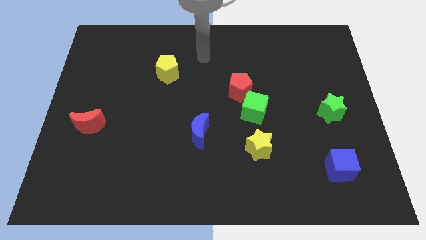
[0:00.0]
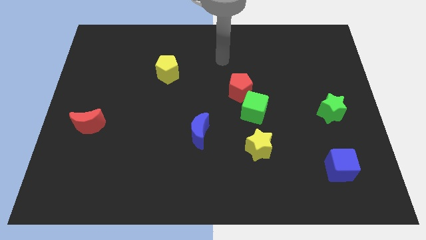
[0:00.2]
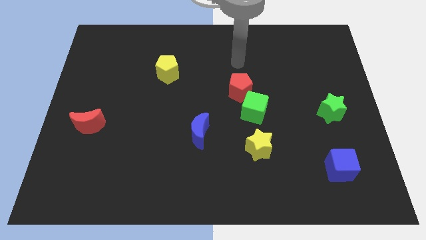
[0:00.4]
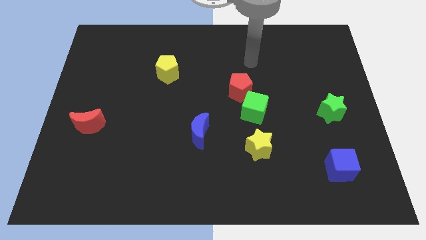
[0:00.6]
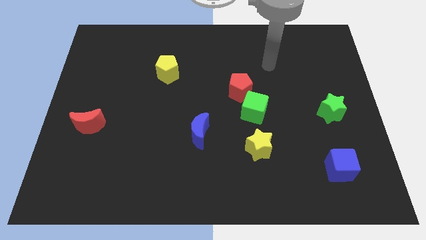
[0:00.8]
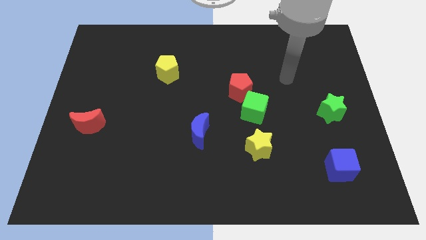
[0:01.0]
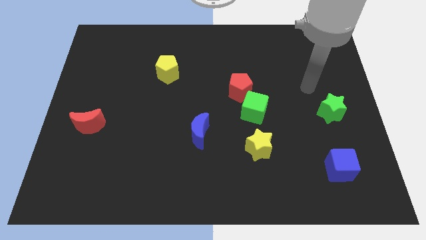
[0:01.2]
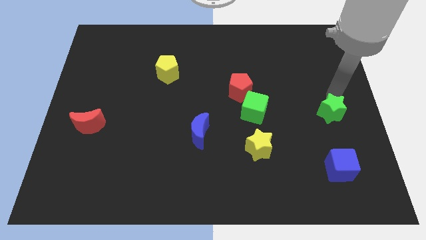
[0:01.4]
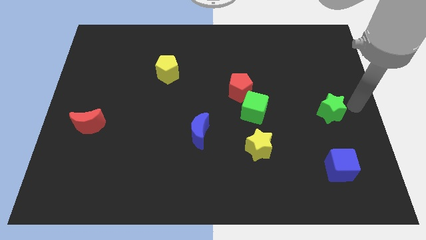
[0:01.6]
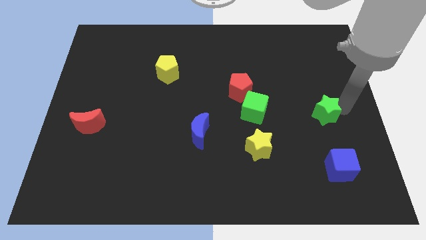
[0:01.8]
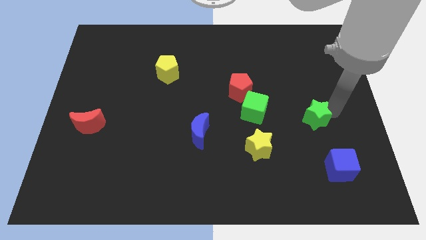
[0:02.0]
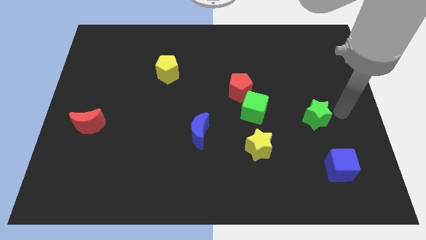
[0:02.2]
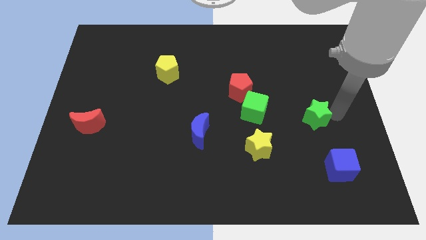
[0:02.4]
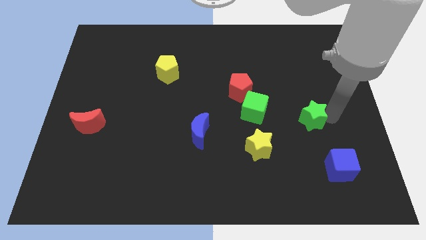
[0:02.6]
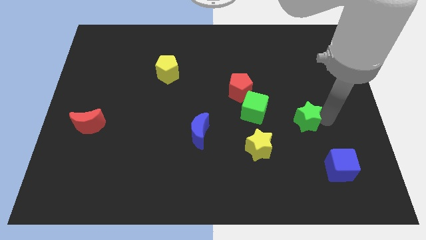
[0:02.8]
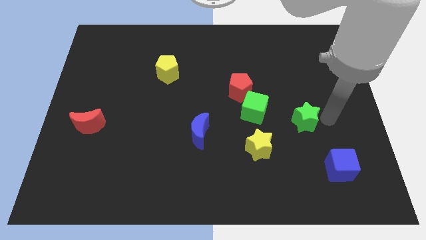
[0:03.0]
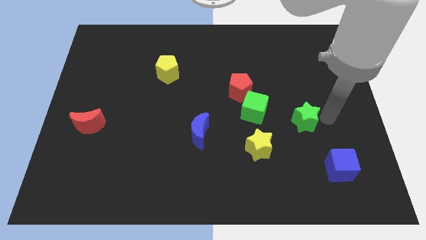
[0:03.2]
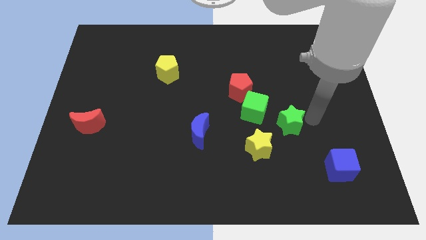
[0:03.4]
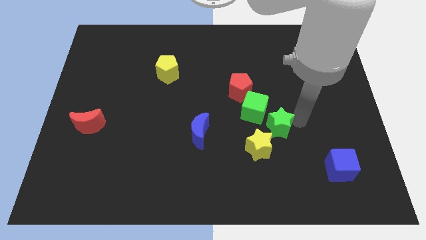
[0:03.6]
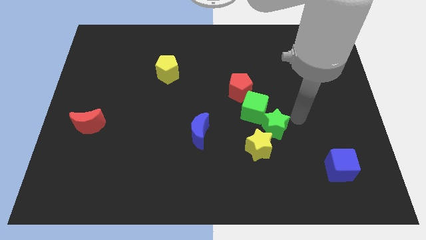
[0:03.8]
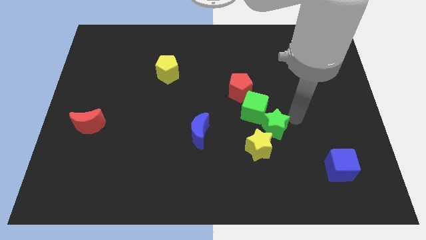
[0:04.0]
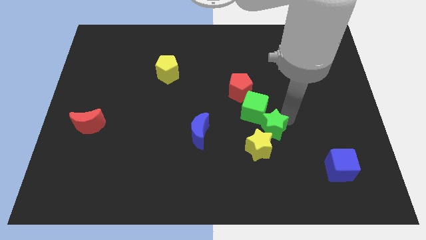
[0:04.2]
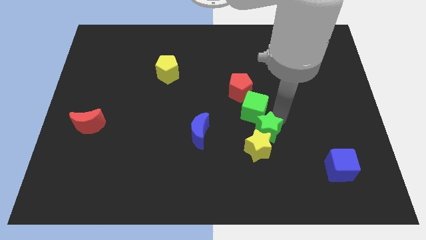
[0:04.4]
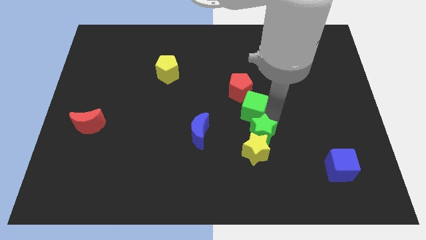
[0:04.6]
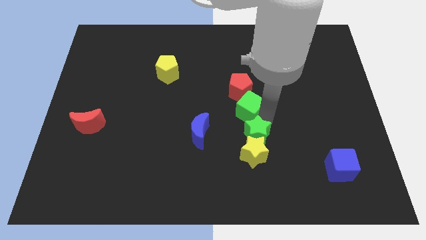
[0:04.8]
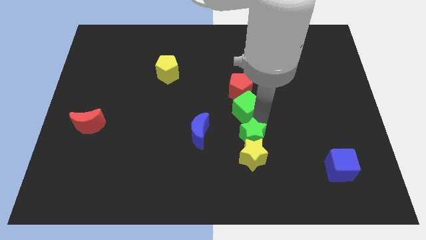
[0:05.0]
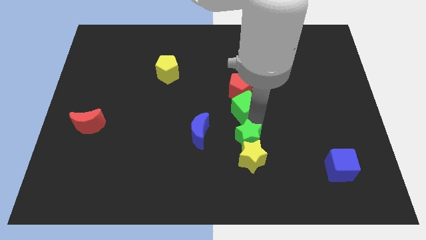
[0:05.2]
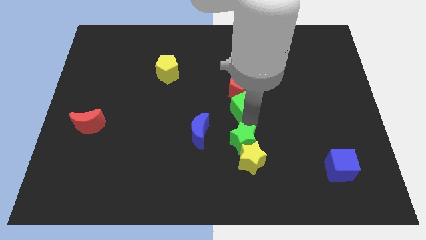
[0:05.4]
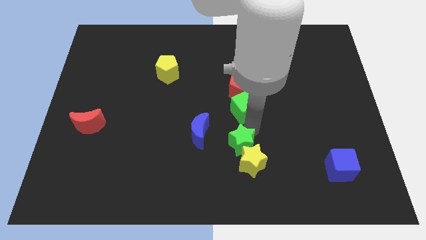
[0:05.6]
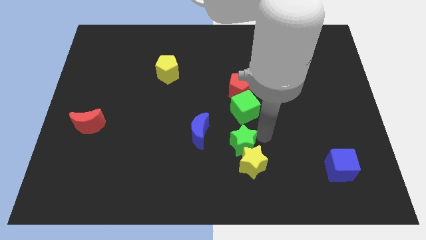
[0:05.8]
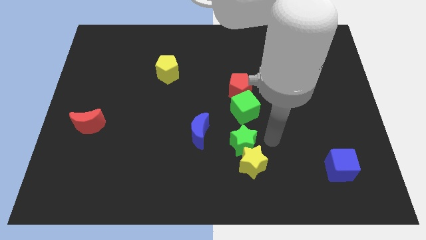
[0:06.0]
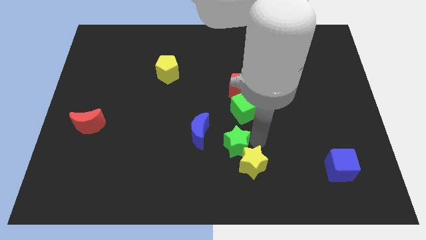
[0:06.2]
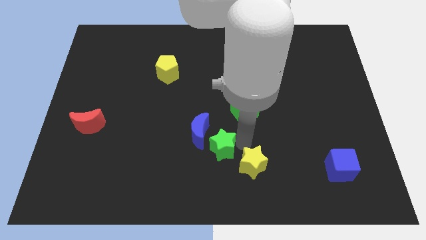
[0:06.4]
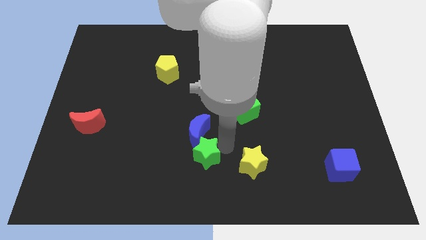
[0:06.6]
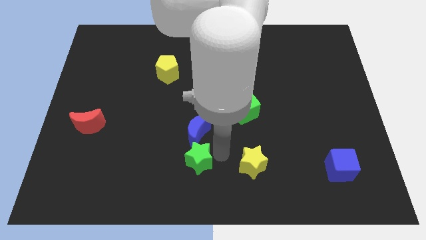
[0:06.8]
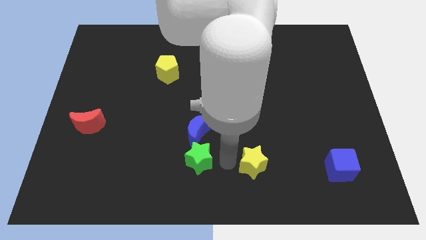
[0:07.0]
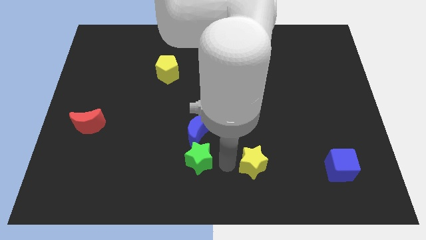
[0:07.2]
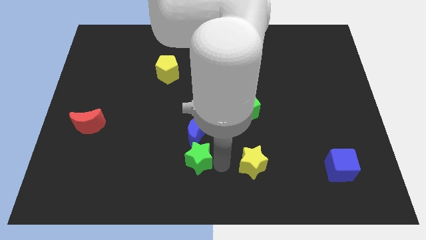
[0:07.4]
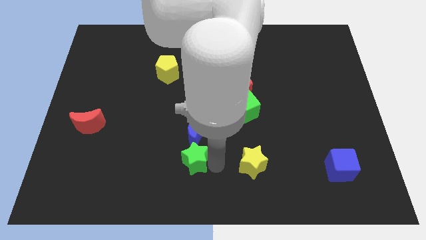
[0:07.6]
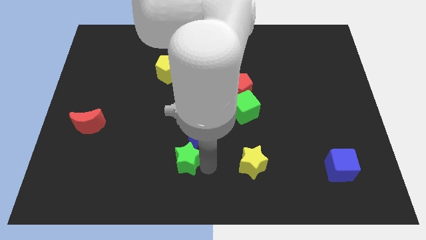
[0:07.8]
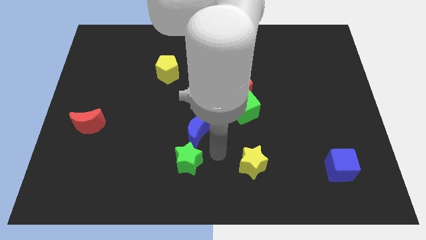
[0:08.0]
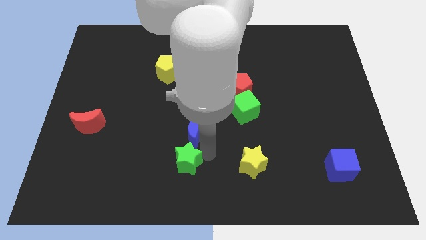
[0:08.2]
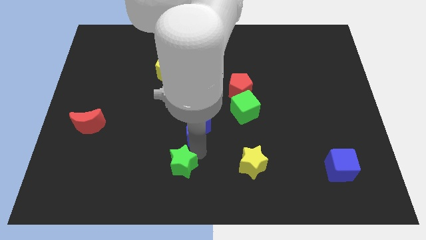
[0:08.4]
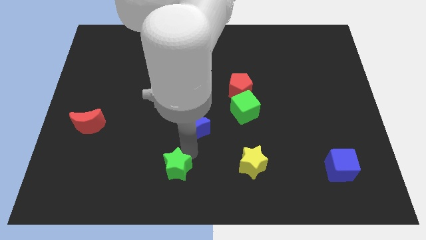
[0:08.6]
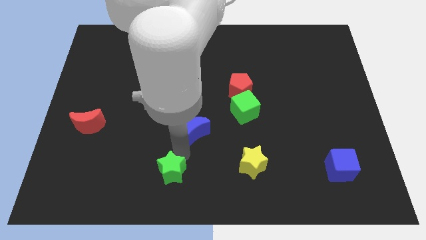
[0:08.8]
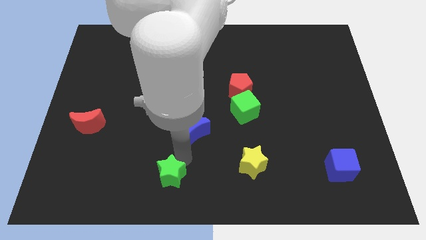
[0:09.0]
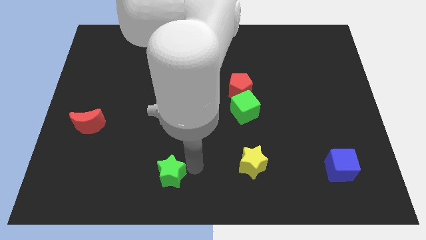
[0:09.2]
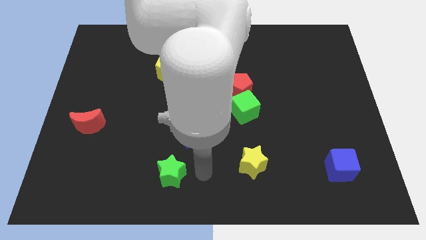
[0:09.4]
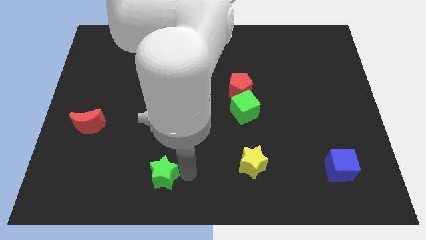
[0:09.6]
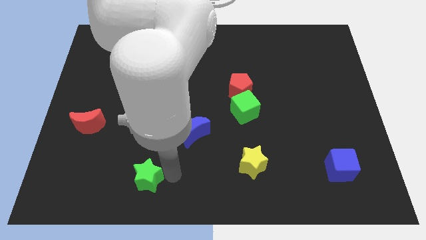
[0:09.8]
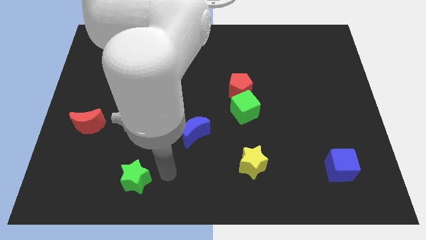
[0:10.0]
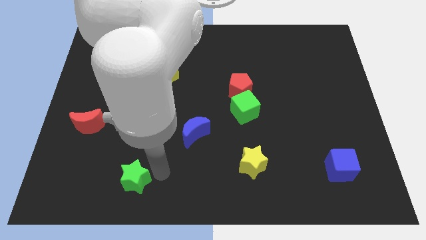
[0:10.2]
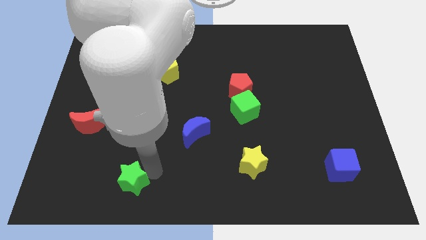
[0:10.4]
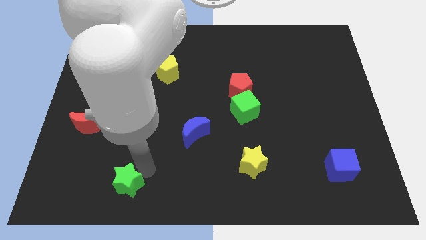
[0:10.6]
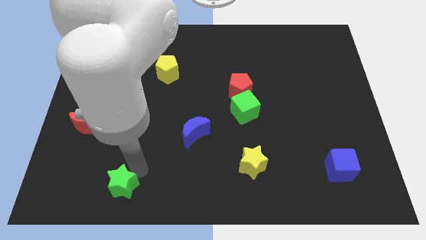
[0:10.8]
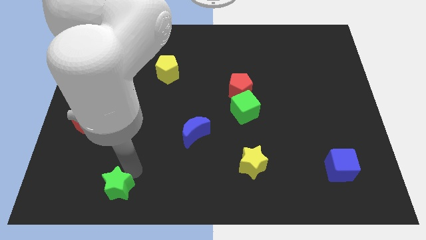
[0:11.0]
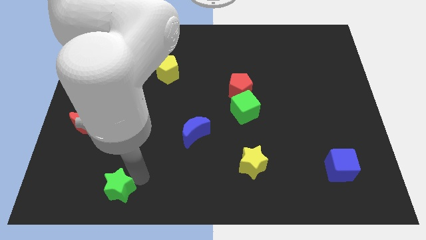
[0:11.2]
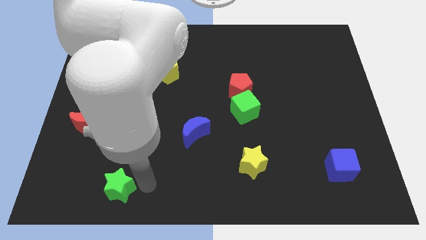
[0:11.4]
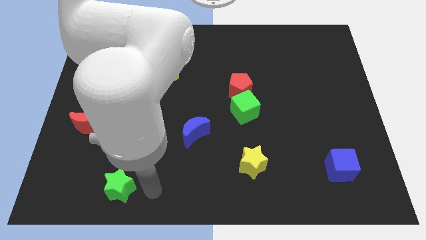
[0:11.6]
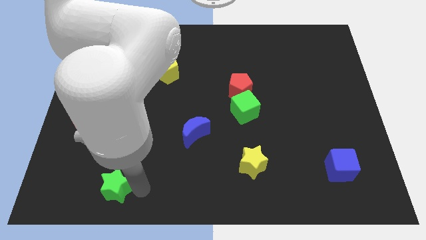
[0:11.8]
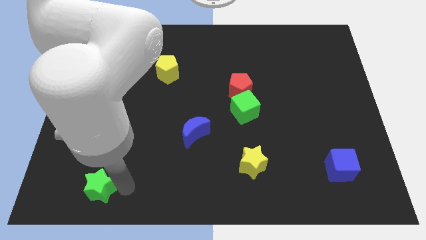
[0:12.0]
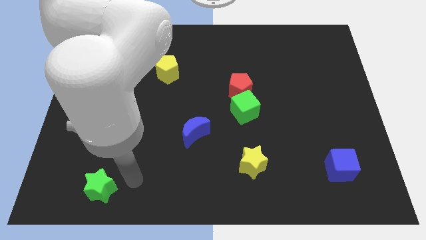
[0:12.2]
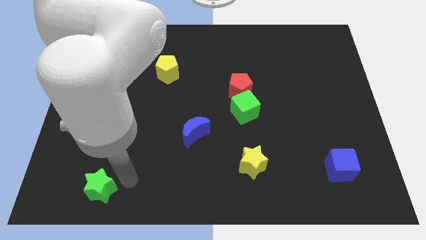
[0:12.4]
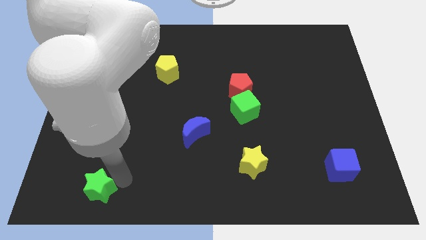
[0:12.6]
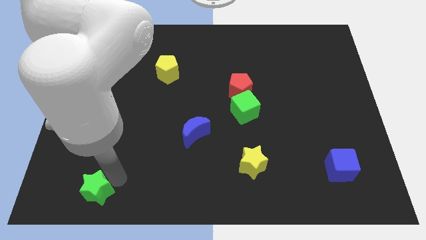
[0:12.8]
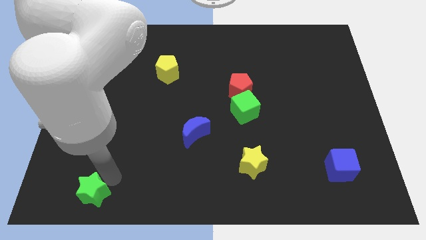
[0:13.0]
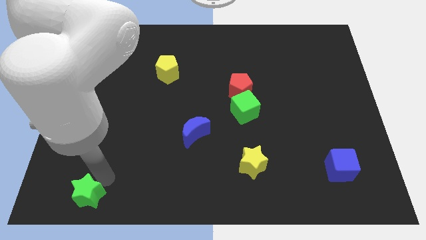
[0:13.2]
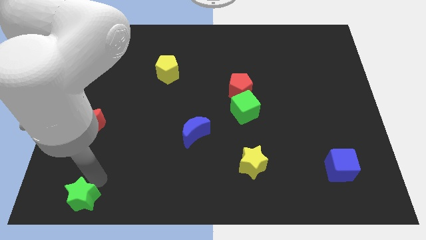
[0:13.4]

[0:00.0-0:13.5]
slide the green star to the bottom left corner
